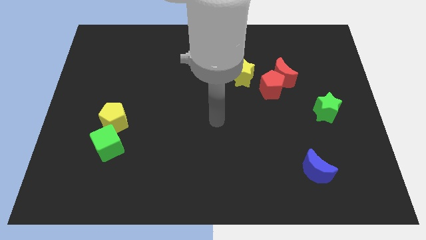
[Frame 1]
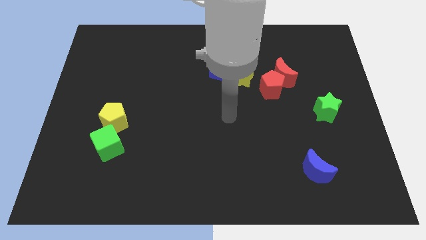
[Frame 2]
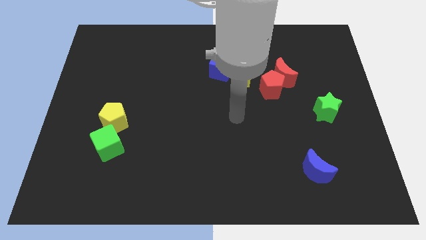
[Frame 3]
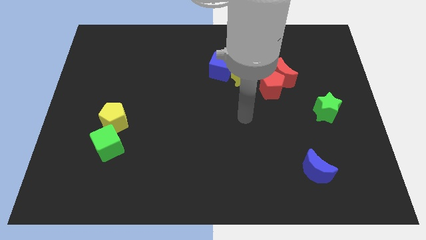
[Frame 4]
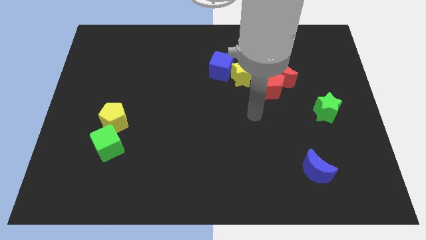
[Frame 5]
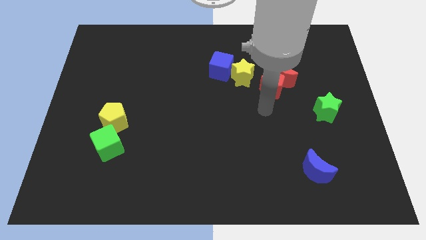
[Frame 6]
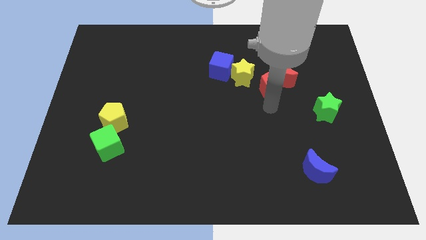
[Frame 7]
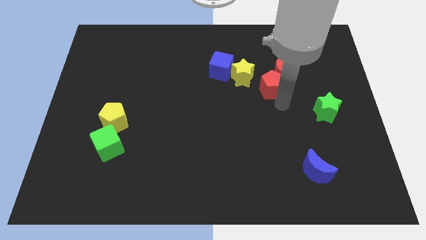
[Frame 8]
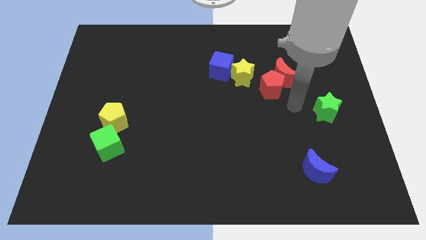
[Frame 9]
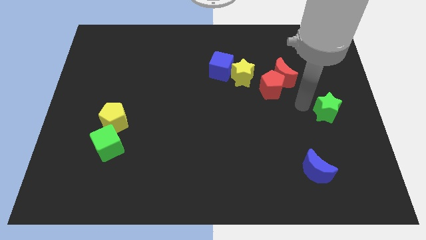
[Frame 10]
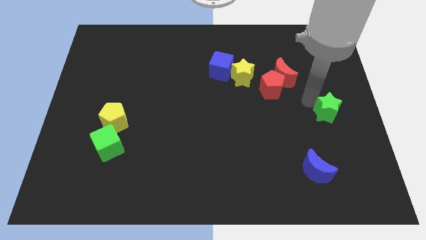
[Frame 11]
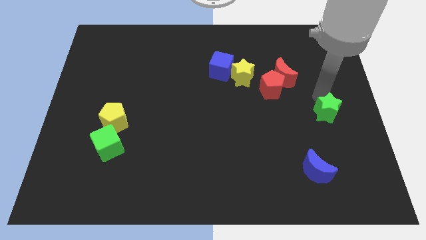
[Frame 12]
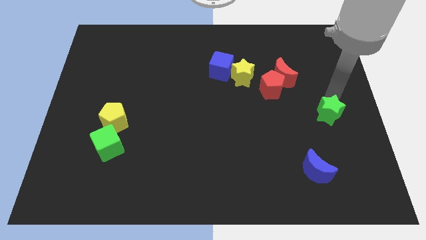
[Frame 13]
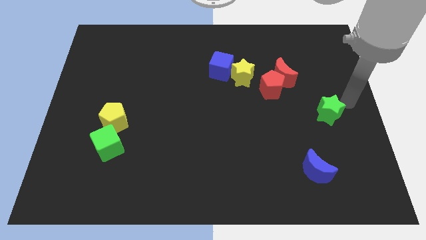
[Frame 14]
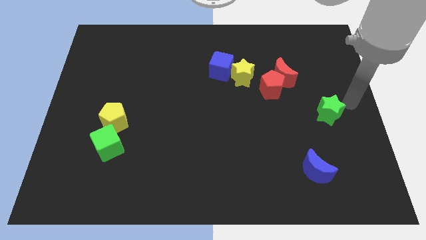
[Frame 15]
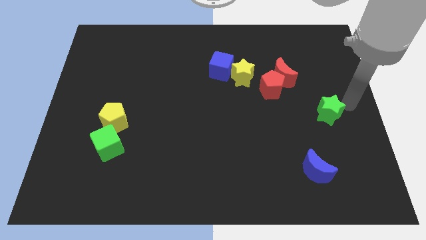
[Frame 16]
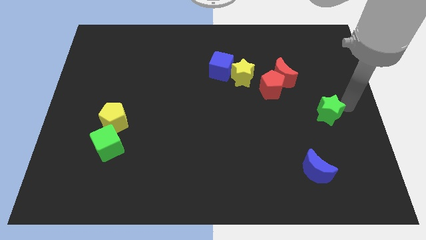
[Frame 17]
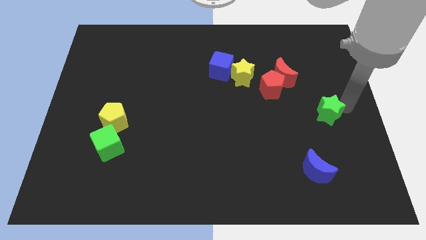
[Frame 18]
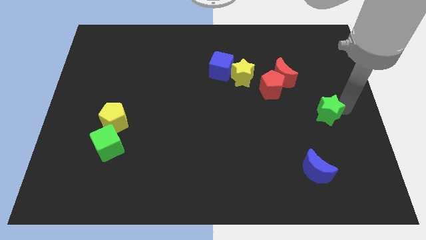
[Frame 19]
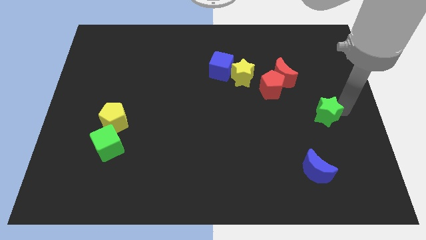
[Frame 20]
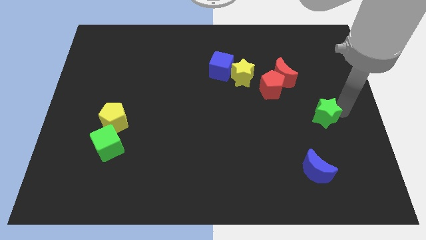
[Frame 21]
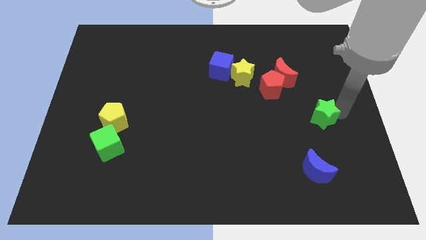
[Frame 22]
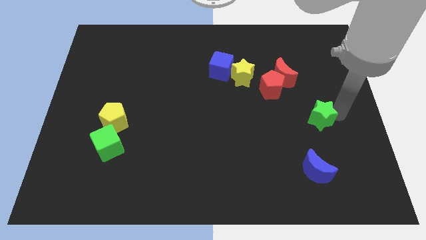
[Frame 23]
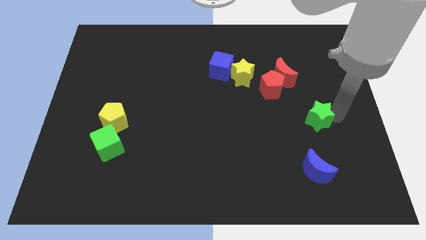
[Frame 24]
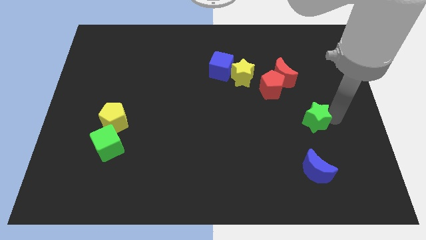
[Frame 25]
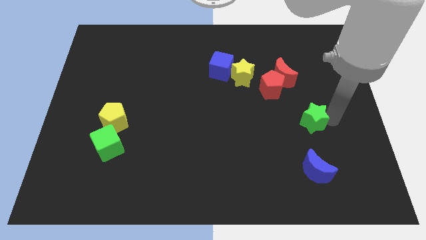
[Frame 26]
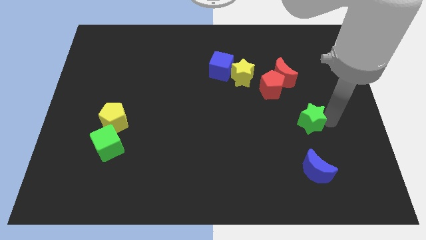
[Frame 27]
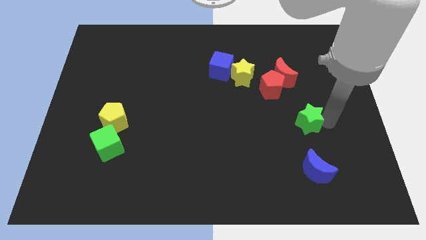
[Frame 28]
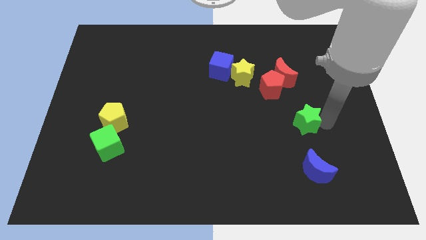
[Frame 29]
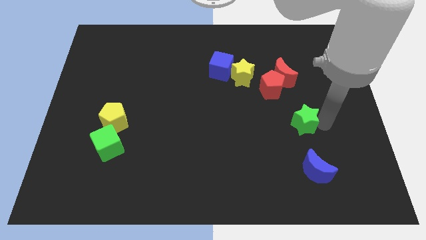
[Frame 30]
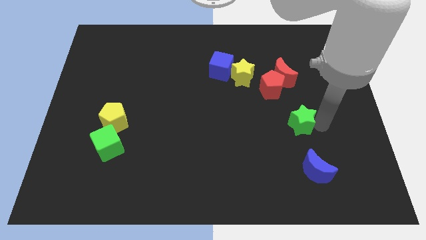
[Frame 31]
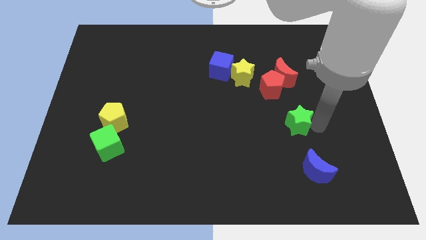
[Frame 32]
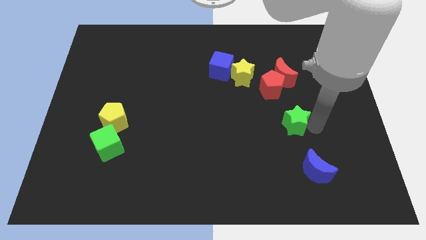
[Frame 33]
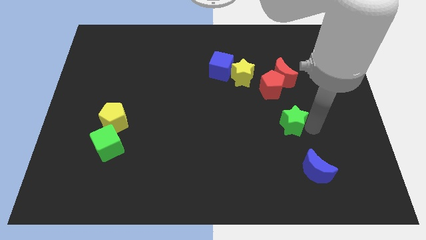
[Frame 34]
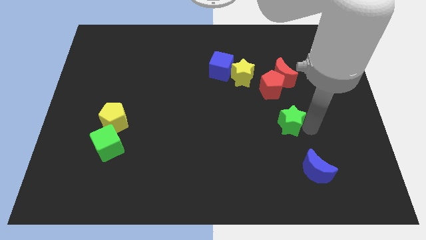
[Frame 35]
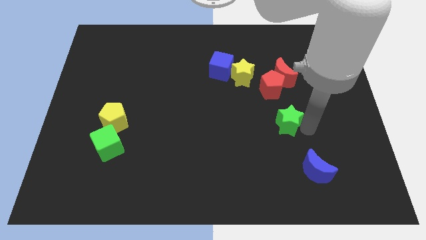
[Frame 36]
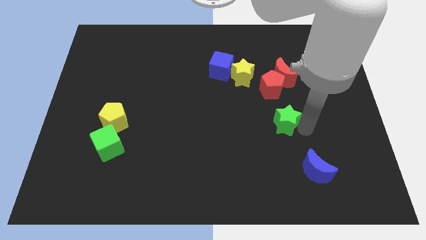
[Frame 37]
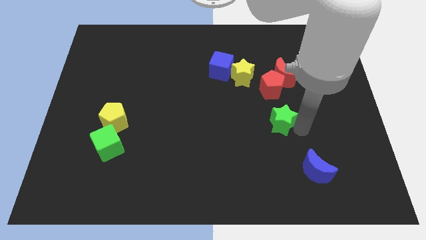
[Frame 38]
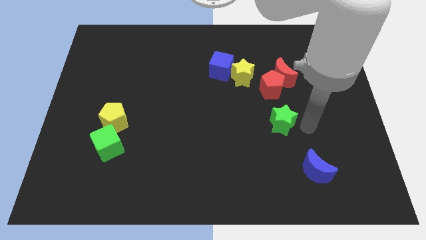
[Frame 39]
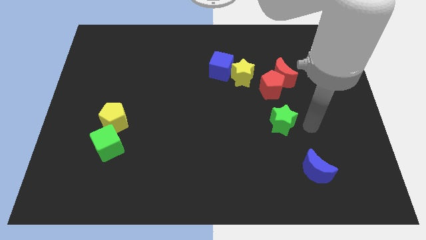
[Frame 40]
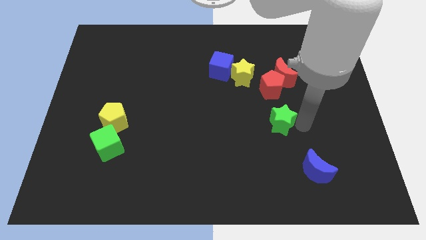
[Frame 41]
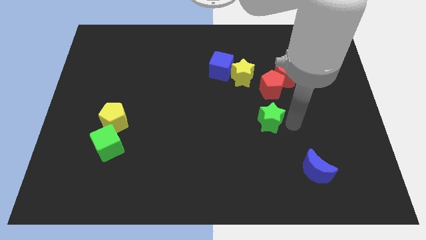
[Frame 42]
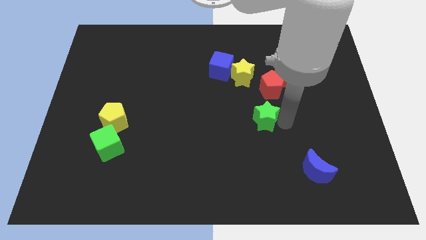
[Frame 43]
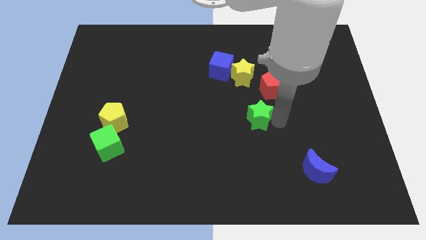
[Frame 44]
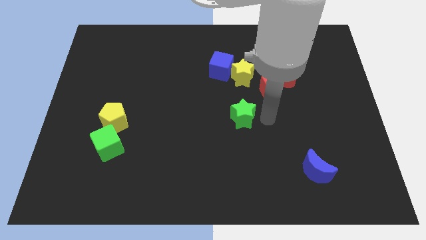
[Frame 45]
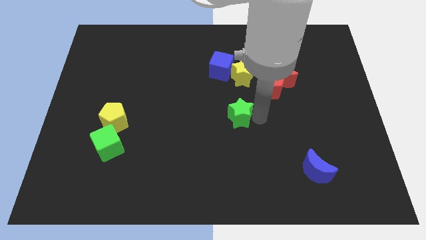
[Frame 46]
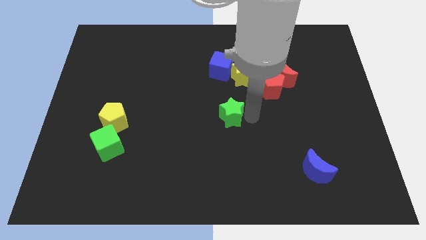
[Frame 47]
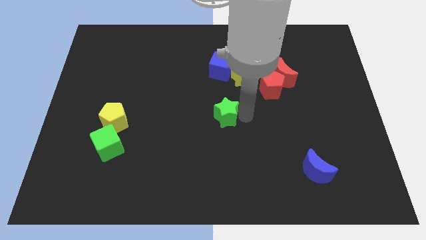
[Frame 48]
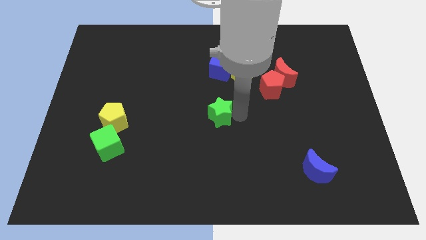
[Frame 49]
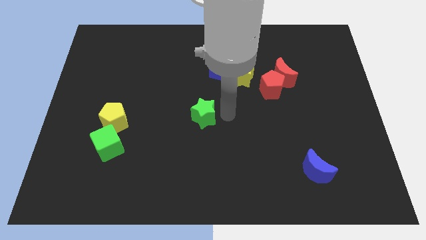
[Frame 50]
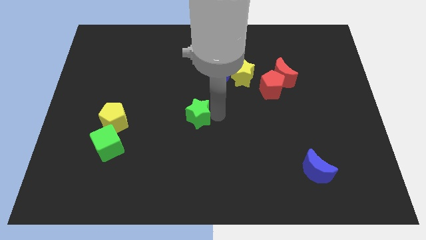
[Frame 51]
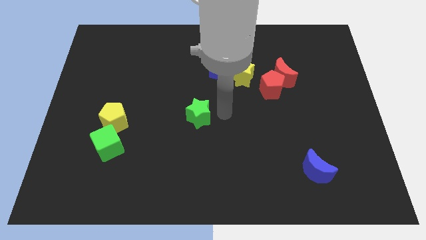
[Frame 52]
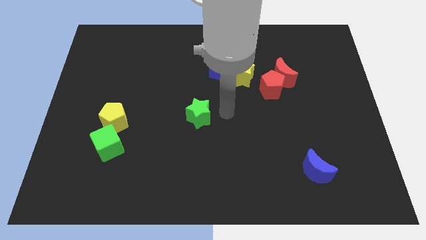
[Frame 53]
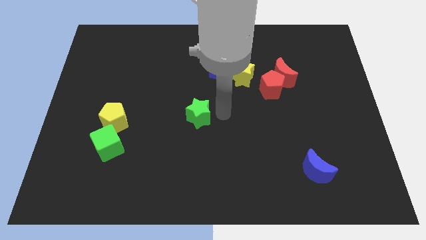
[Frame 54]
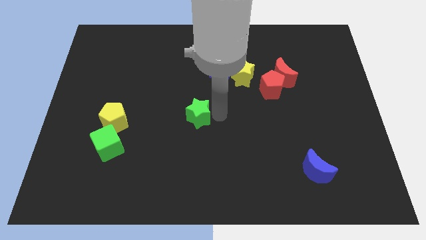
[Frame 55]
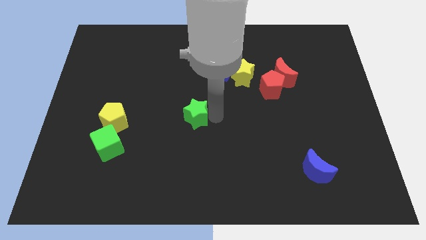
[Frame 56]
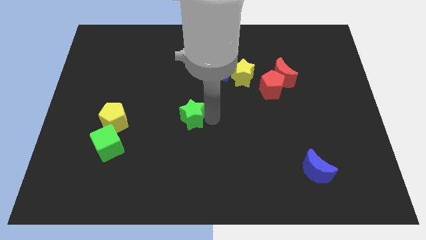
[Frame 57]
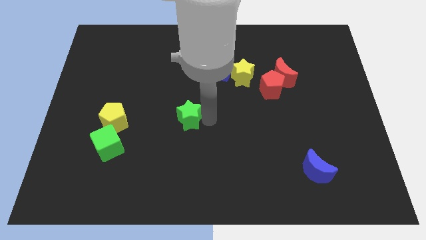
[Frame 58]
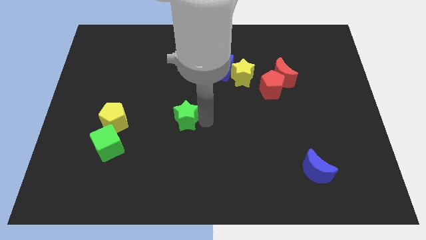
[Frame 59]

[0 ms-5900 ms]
move the green star right of the yellow pentagon
